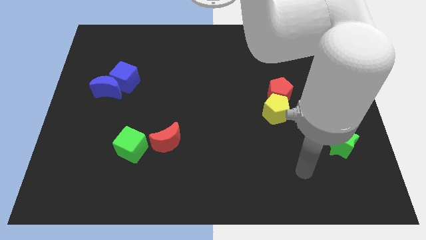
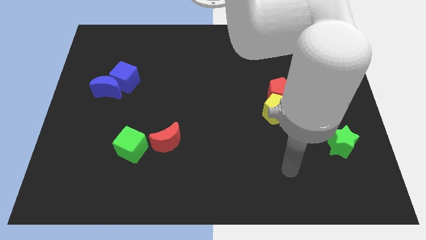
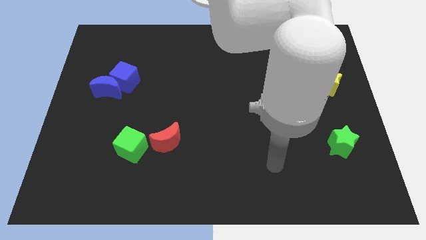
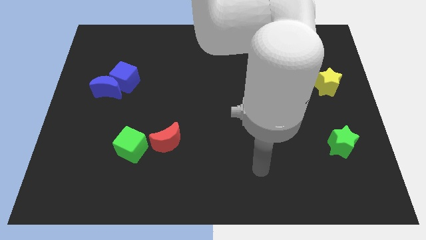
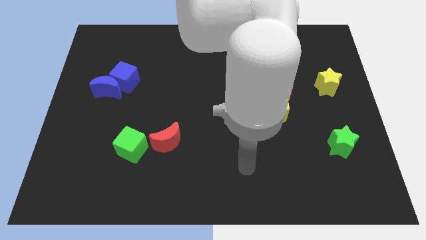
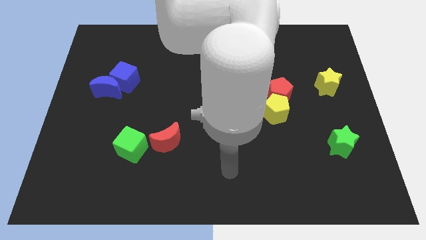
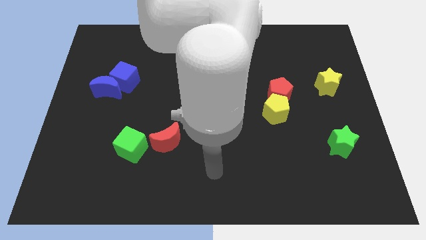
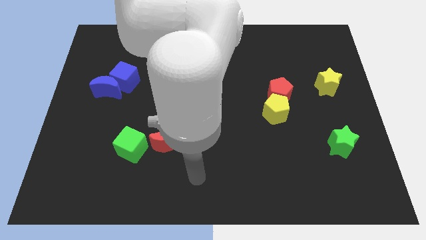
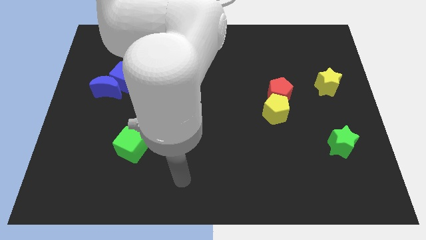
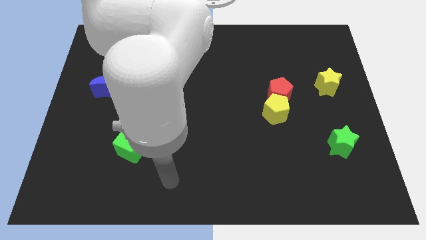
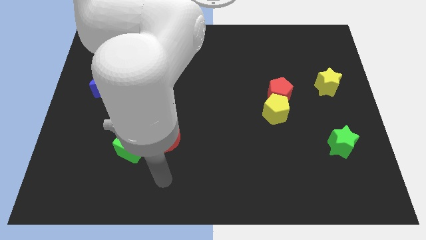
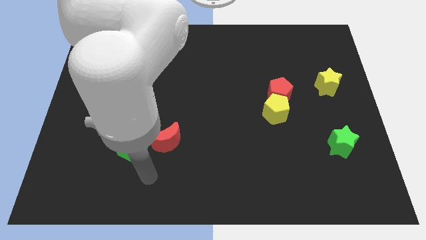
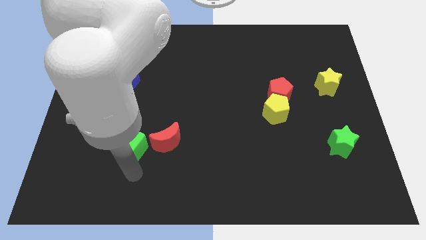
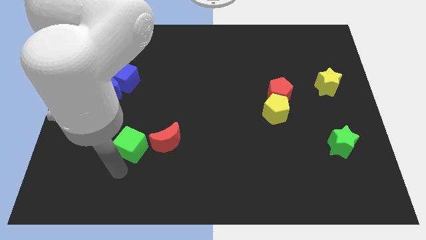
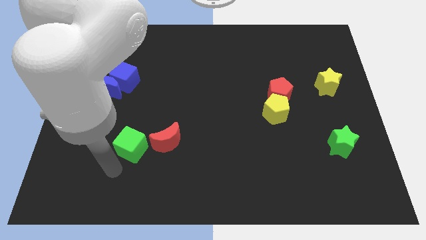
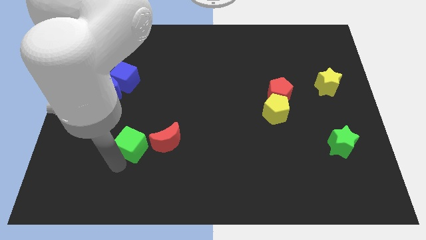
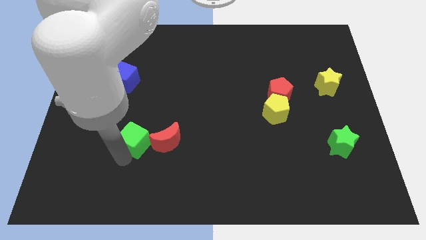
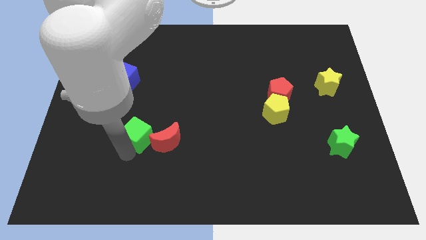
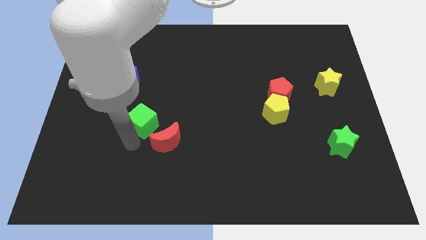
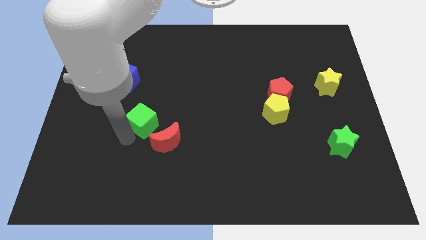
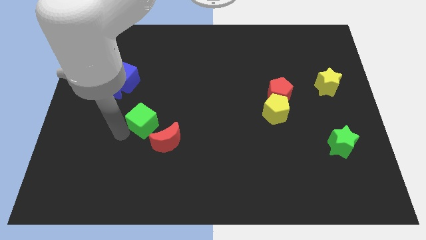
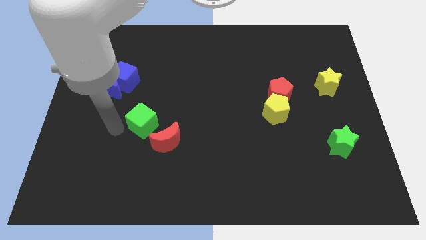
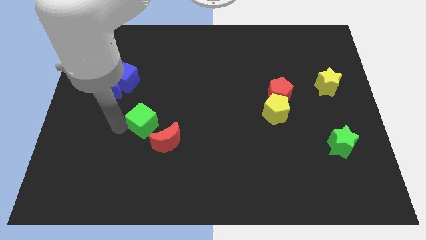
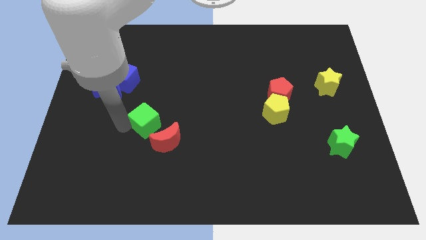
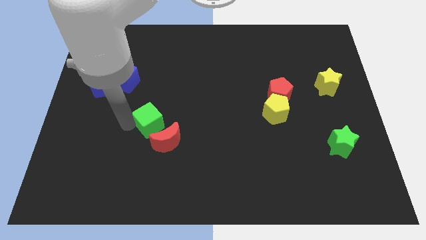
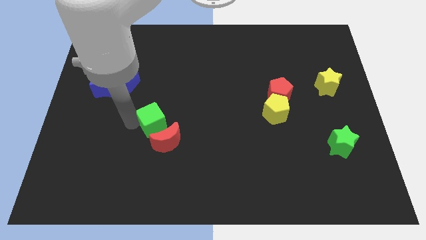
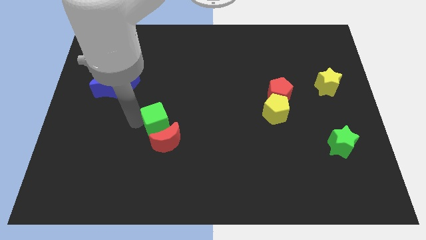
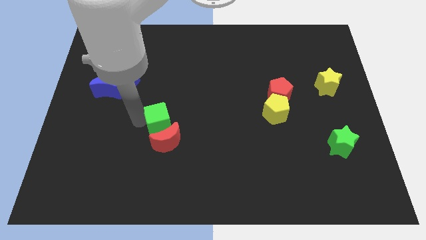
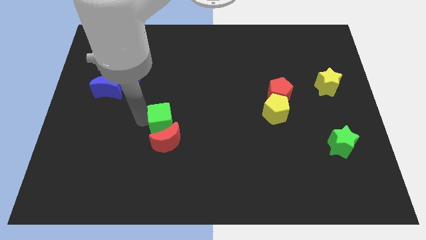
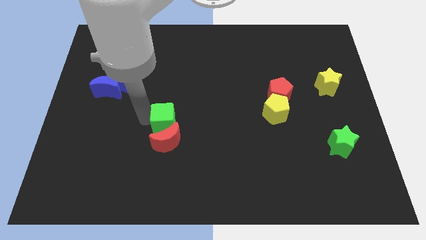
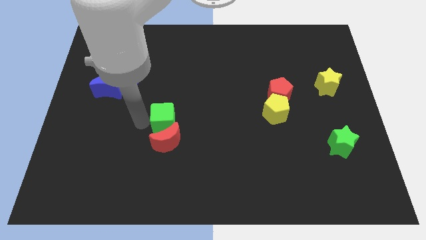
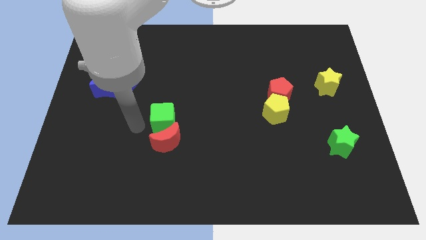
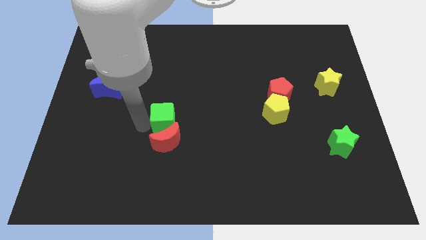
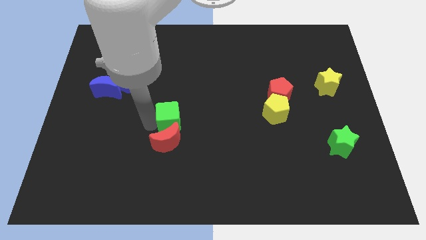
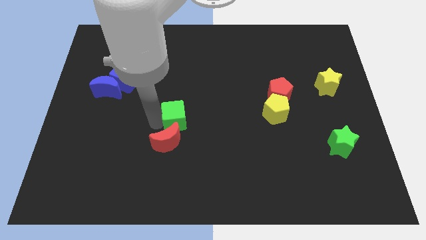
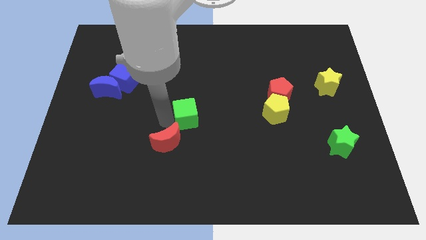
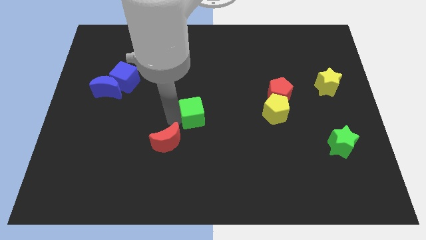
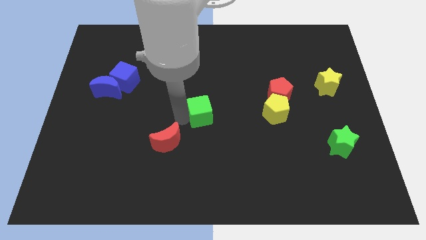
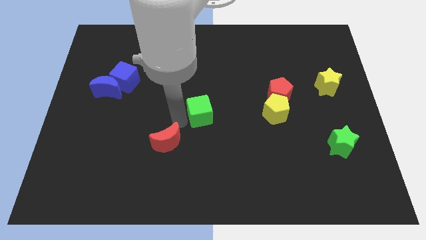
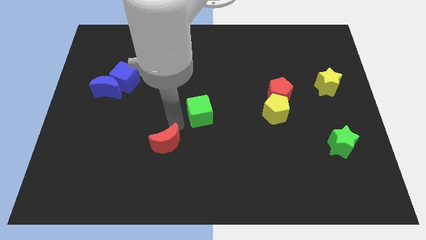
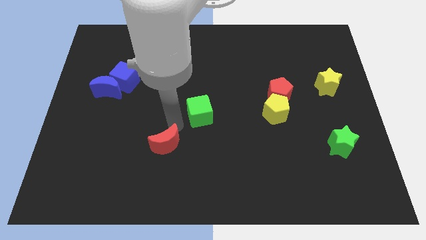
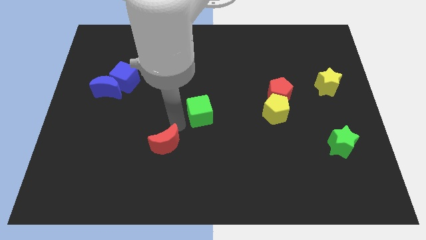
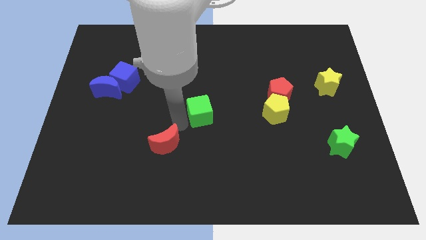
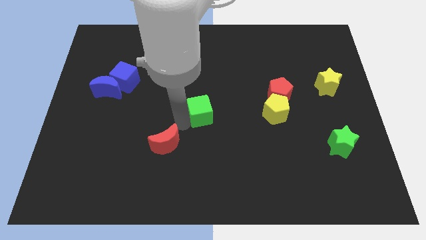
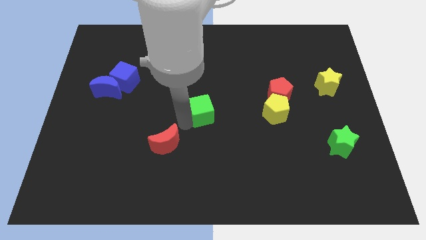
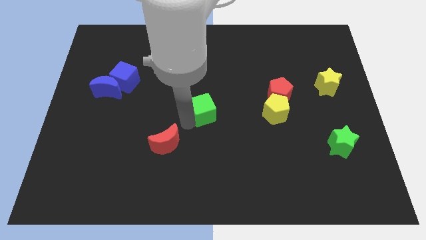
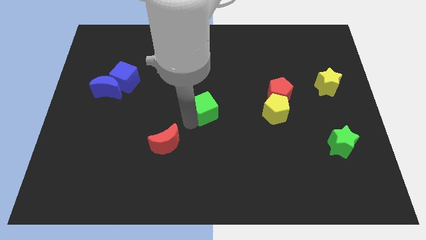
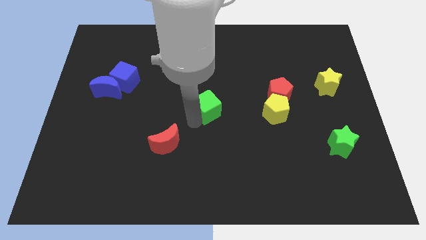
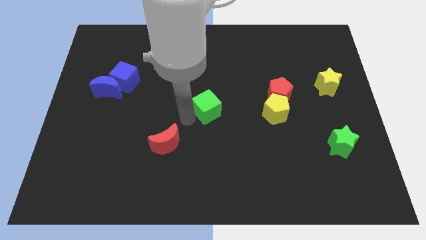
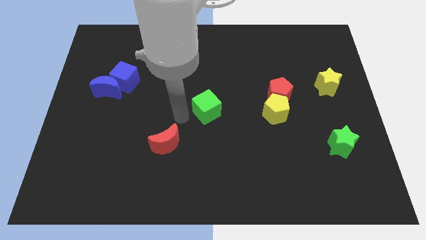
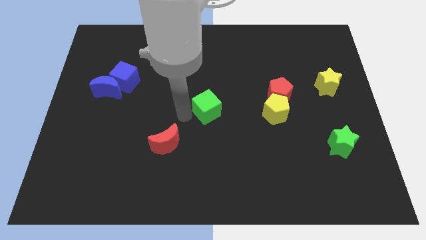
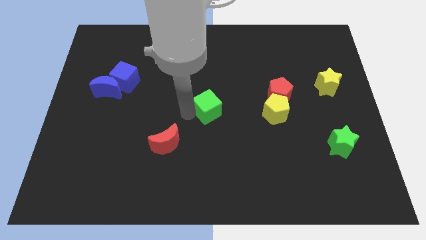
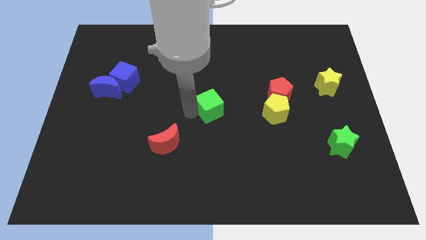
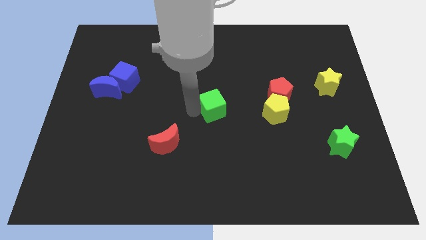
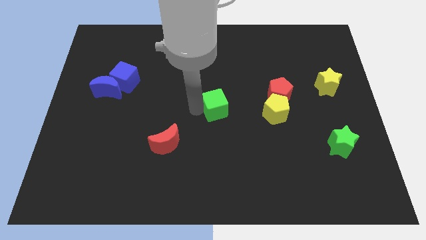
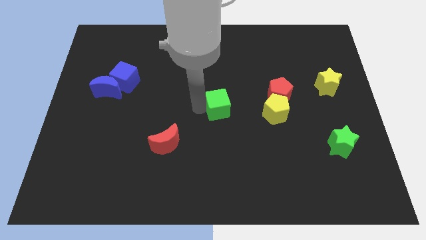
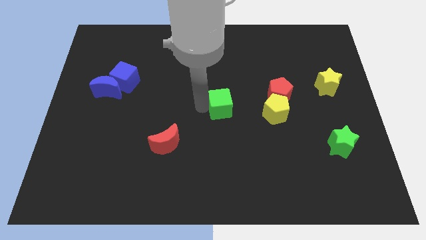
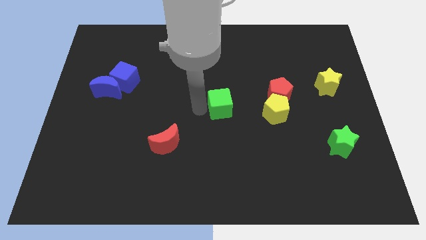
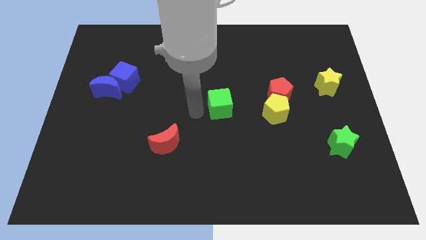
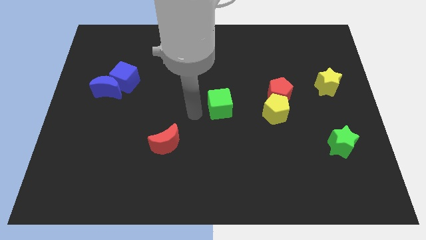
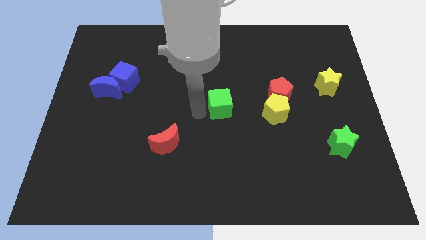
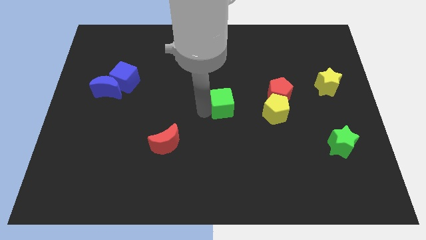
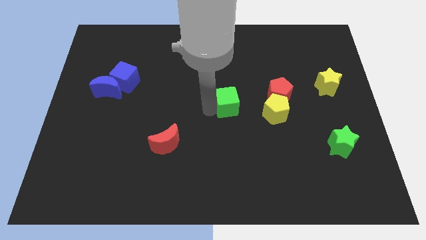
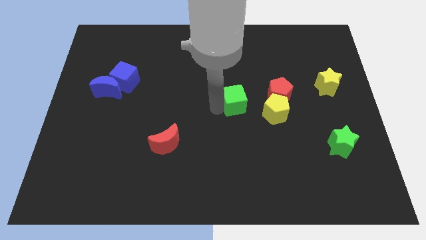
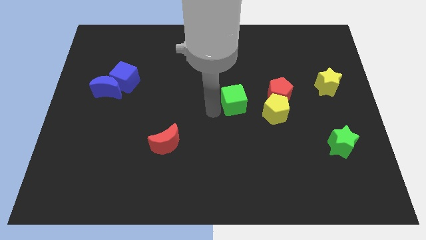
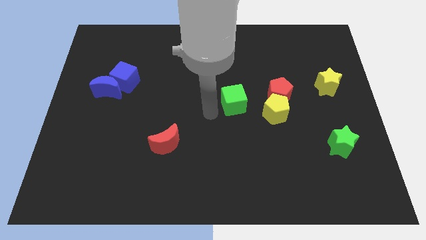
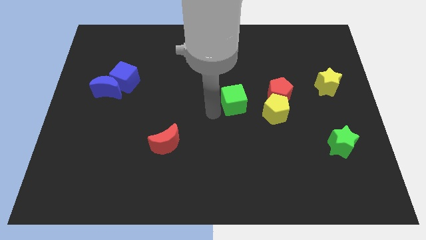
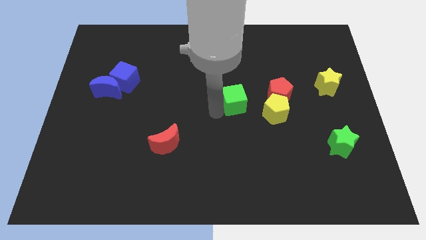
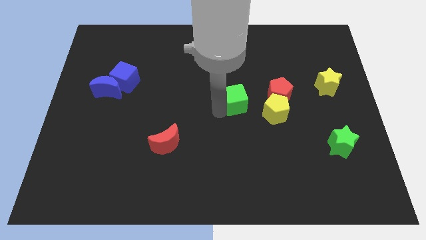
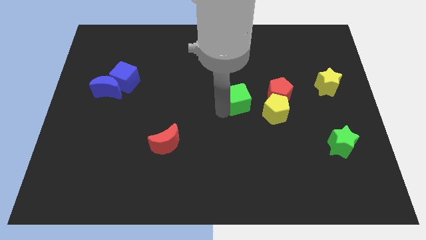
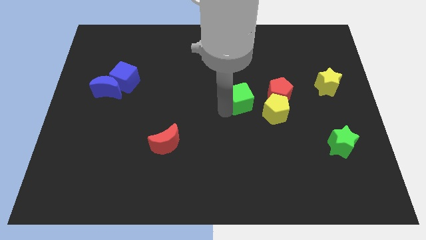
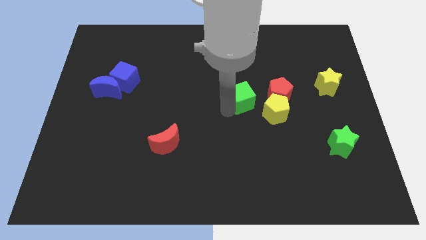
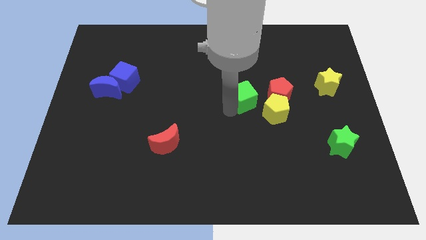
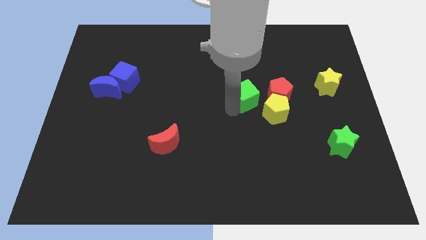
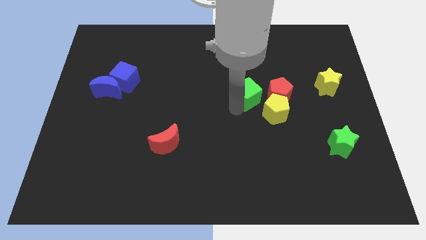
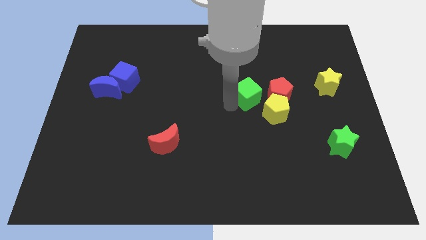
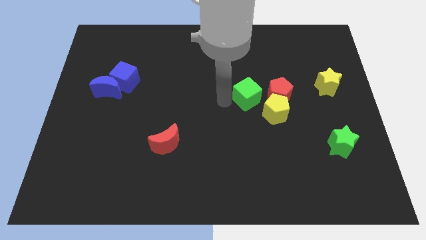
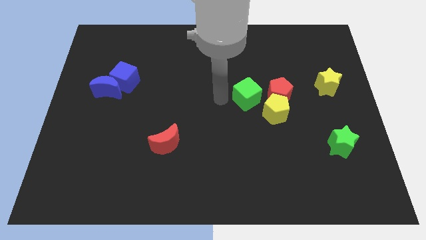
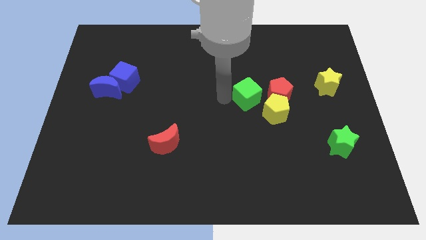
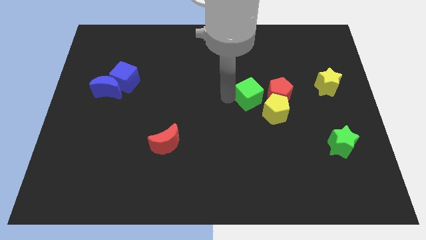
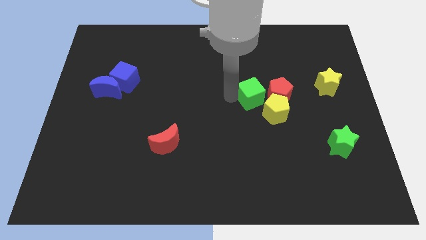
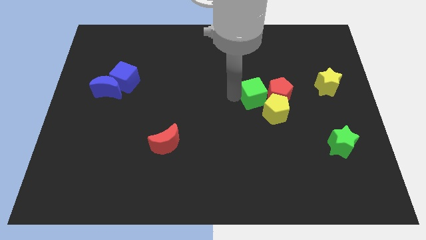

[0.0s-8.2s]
slide the green cube to the red pentagon

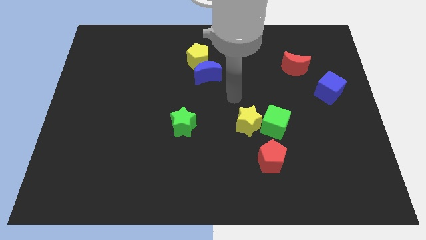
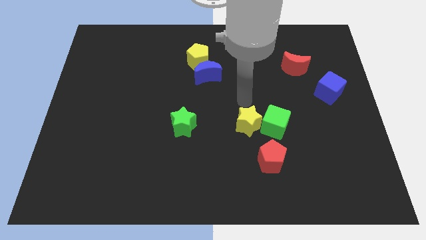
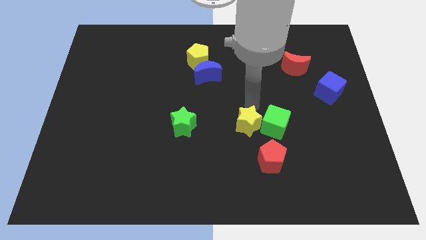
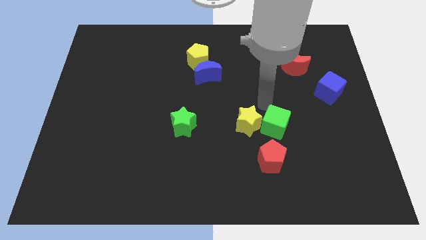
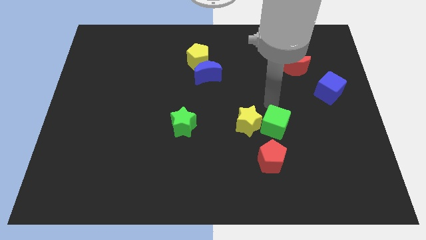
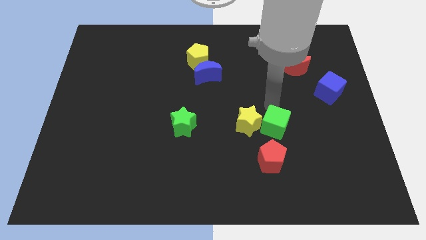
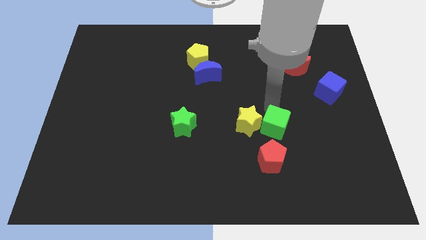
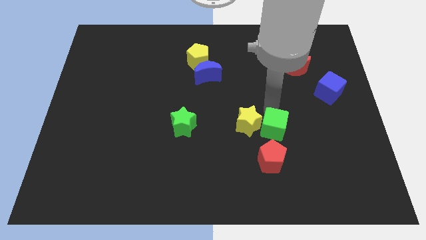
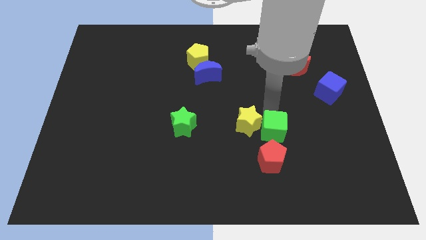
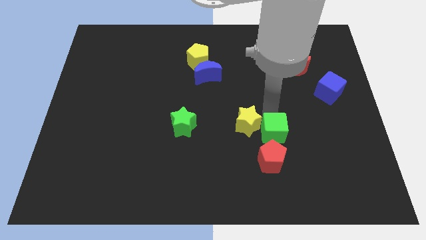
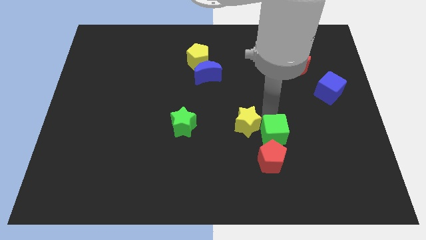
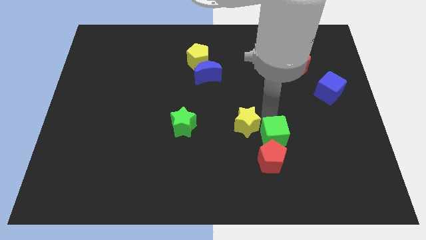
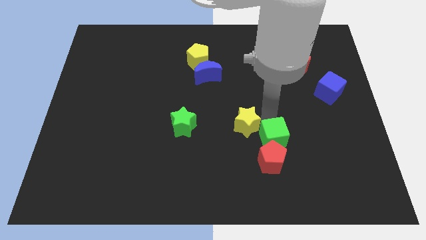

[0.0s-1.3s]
move the green cube close to the red pentagon
